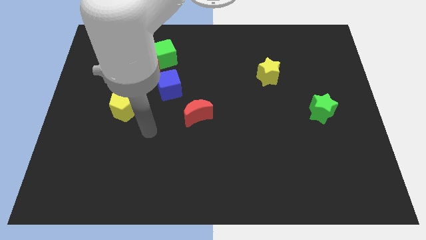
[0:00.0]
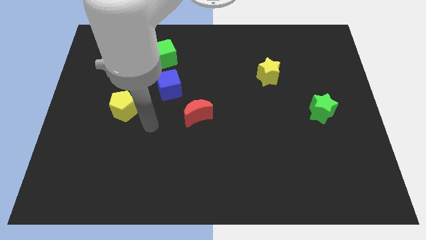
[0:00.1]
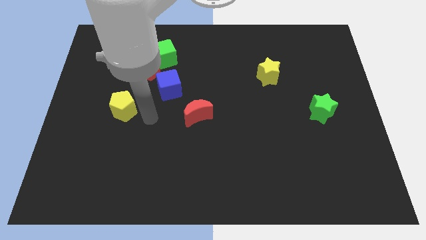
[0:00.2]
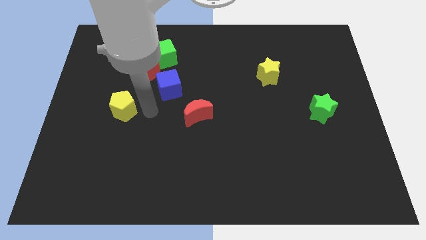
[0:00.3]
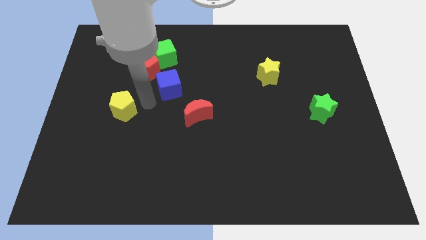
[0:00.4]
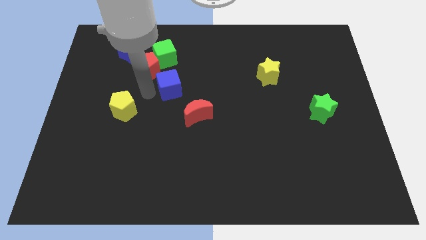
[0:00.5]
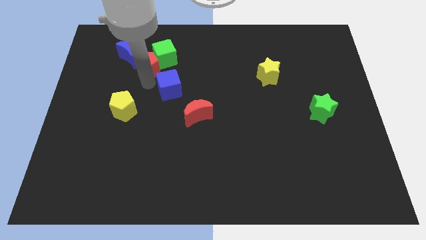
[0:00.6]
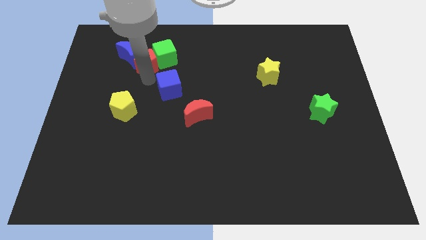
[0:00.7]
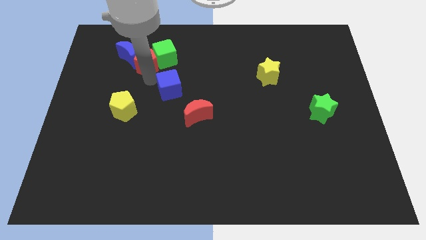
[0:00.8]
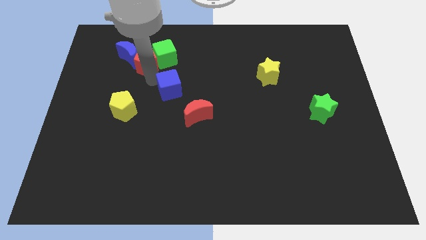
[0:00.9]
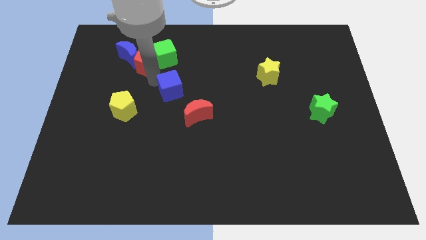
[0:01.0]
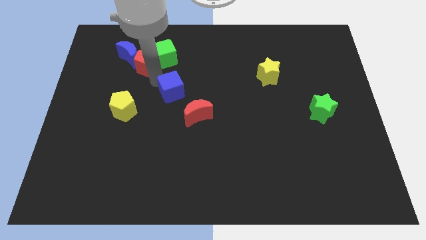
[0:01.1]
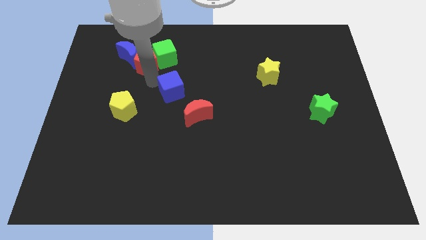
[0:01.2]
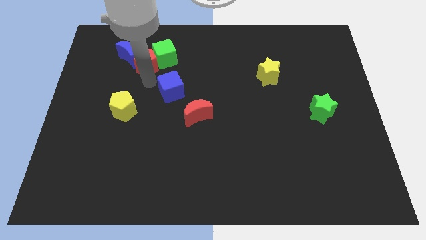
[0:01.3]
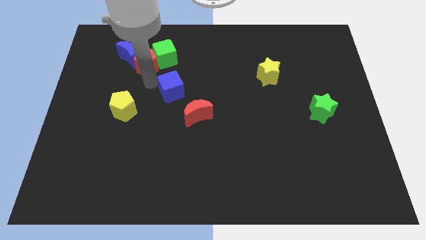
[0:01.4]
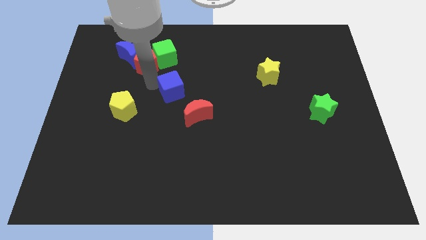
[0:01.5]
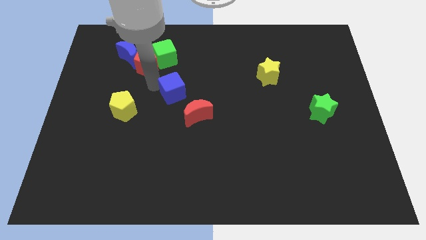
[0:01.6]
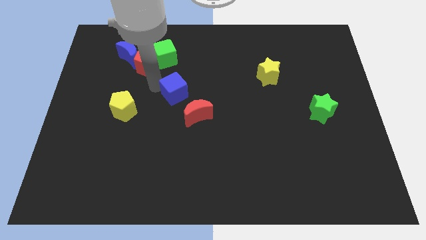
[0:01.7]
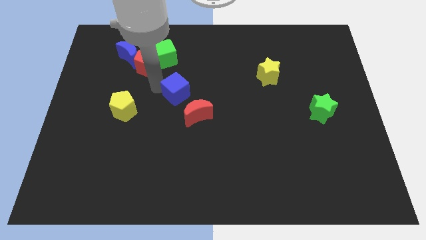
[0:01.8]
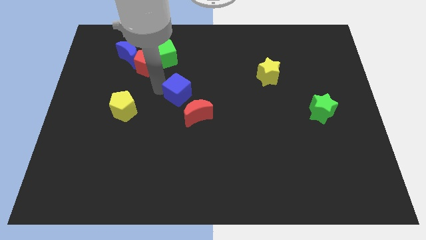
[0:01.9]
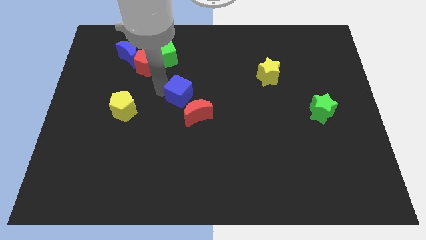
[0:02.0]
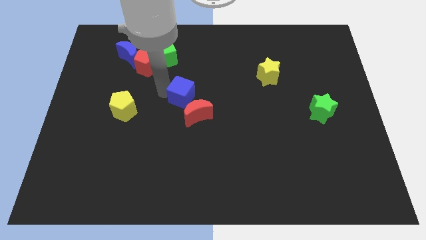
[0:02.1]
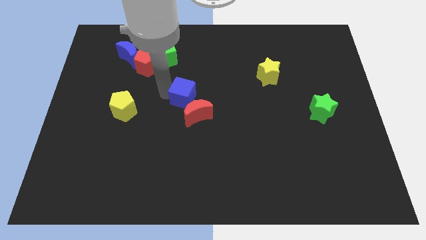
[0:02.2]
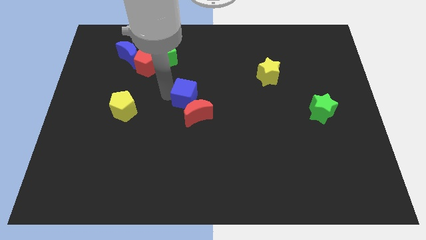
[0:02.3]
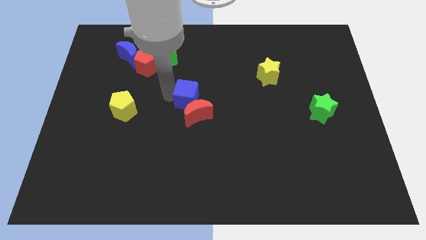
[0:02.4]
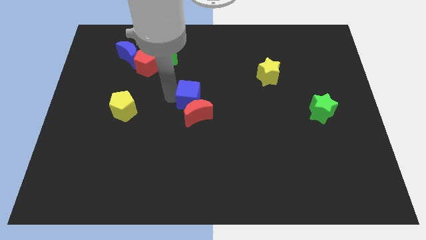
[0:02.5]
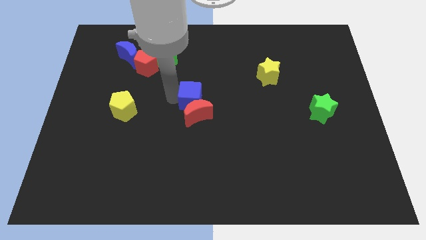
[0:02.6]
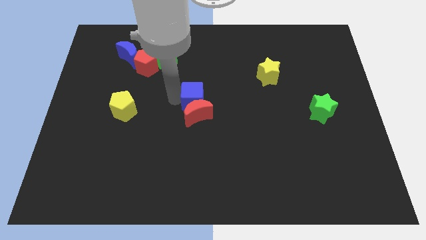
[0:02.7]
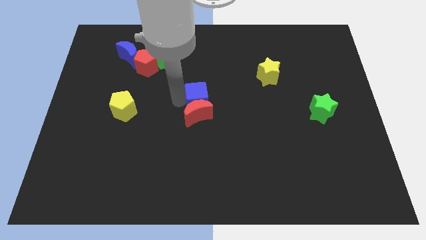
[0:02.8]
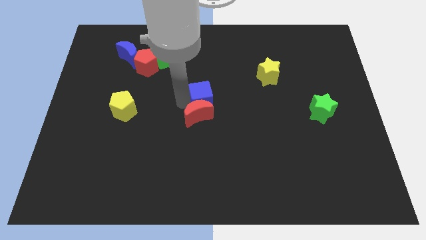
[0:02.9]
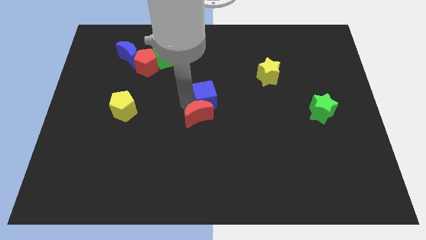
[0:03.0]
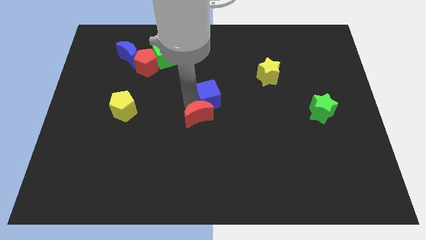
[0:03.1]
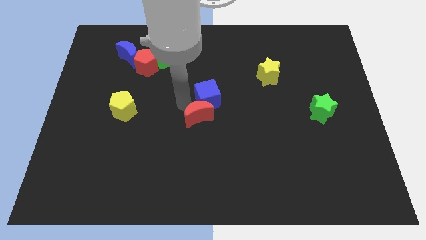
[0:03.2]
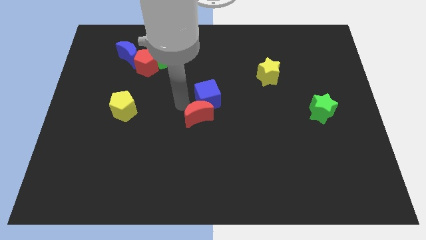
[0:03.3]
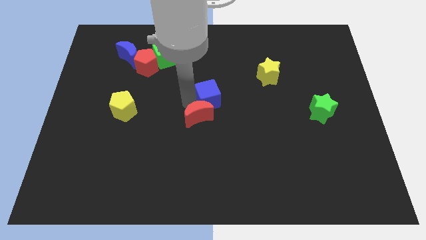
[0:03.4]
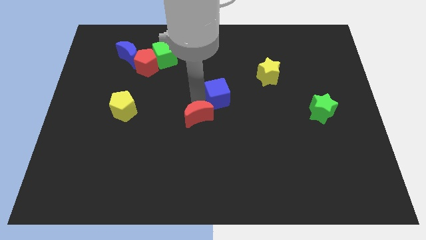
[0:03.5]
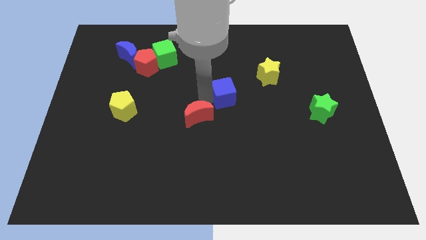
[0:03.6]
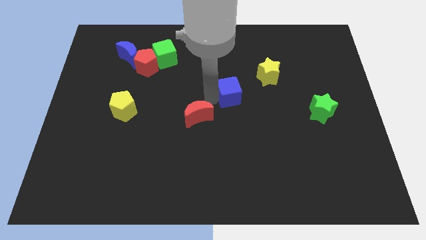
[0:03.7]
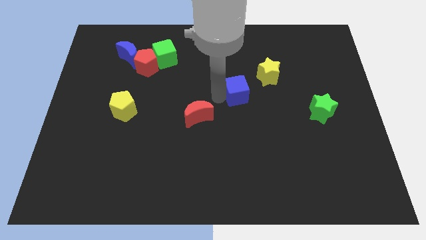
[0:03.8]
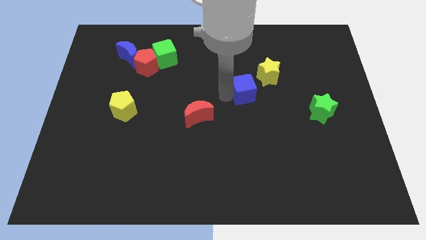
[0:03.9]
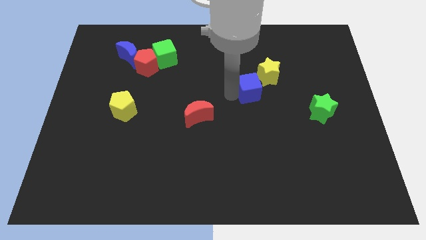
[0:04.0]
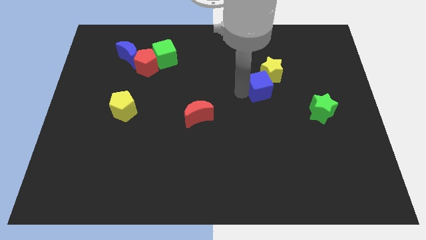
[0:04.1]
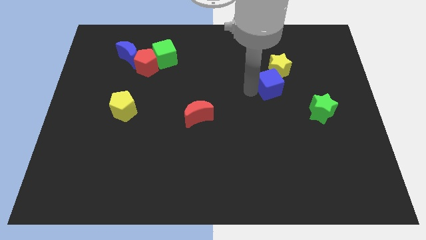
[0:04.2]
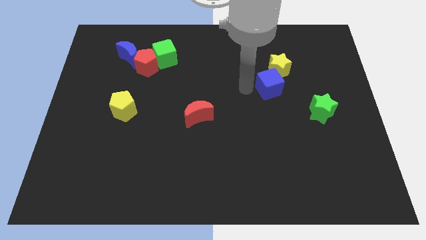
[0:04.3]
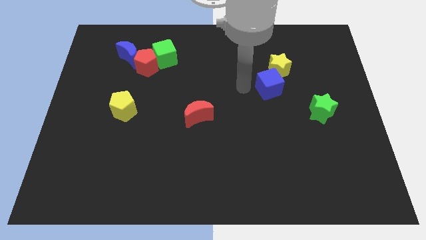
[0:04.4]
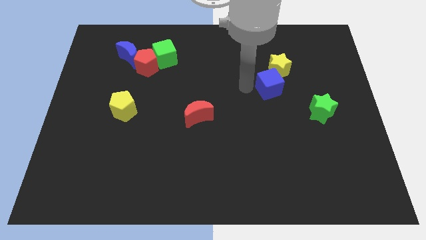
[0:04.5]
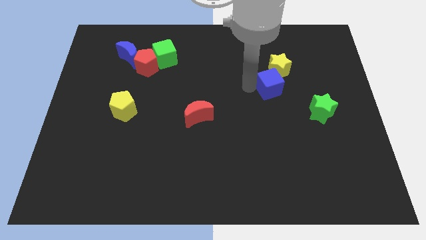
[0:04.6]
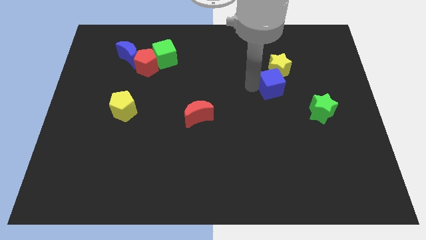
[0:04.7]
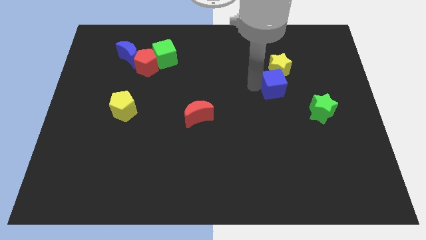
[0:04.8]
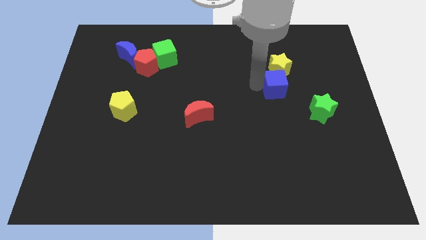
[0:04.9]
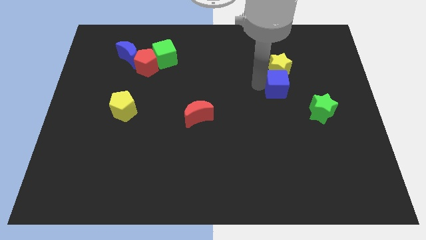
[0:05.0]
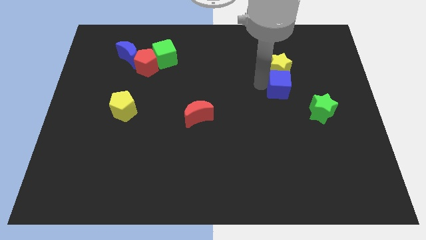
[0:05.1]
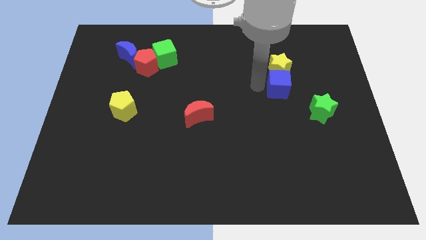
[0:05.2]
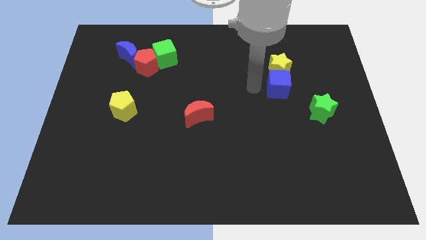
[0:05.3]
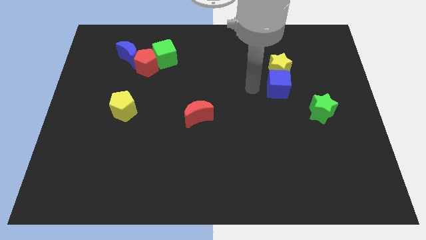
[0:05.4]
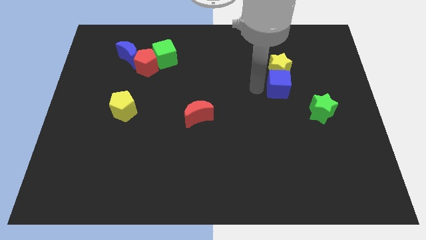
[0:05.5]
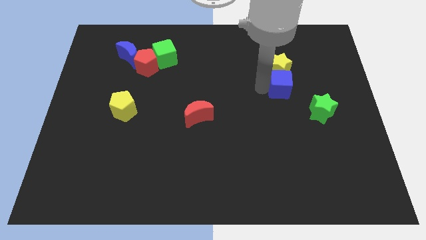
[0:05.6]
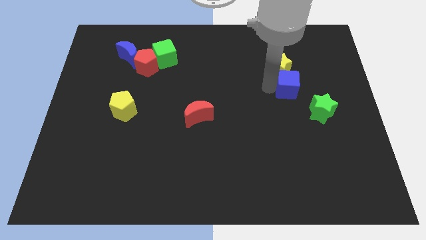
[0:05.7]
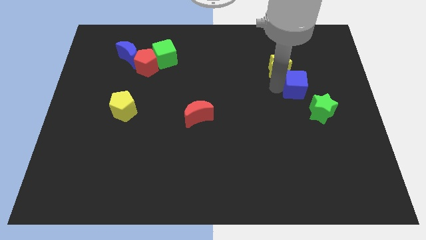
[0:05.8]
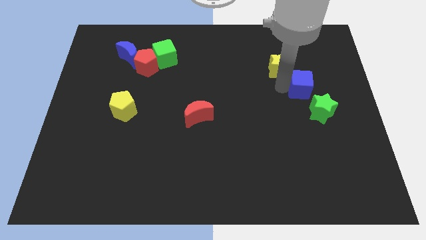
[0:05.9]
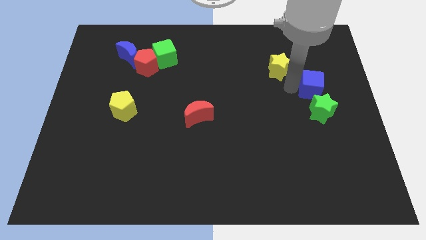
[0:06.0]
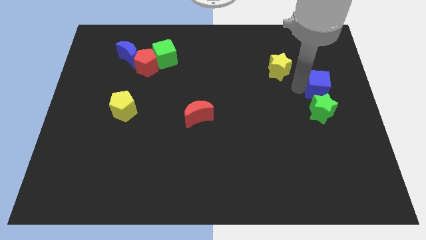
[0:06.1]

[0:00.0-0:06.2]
push the blue cube to the center right
